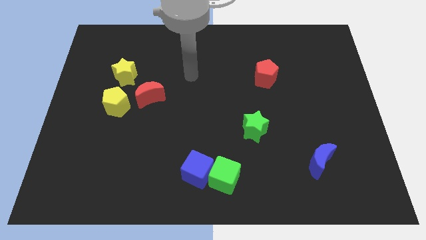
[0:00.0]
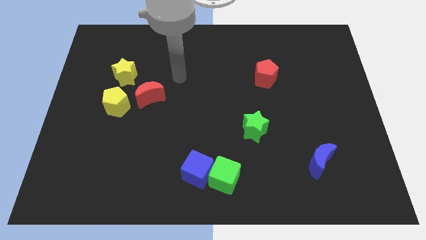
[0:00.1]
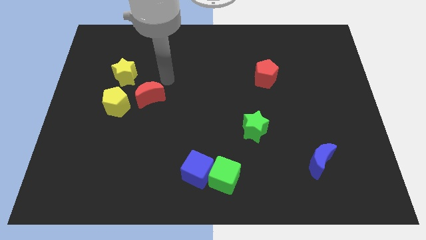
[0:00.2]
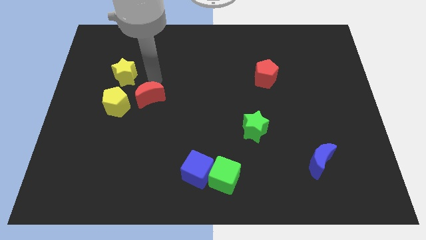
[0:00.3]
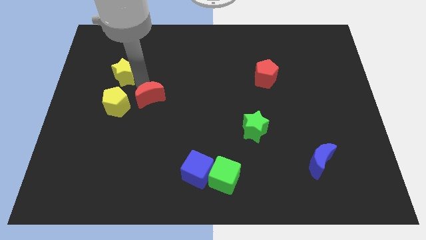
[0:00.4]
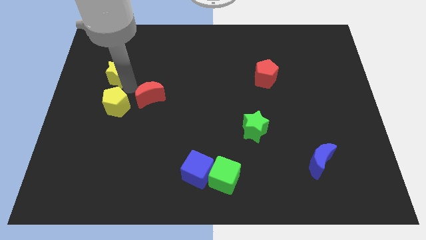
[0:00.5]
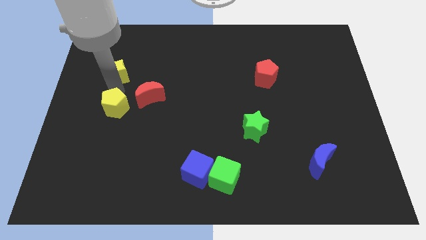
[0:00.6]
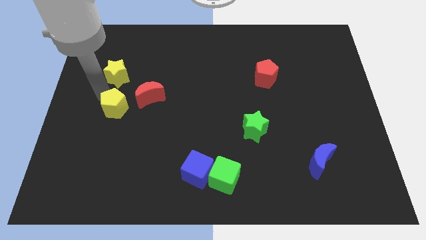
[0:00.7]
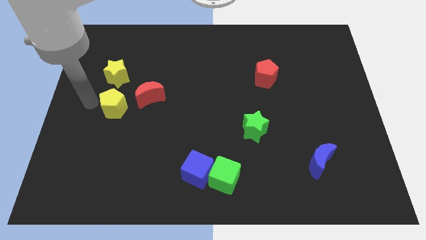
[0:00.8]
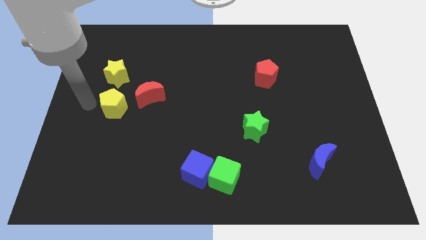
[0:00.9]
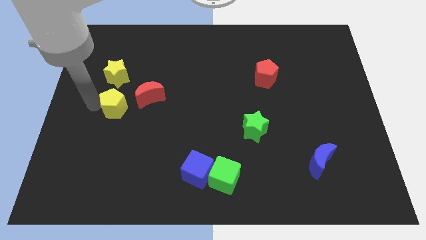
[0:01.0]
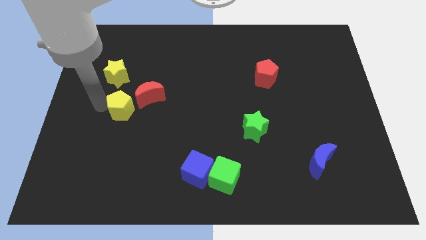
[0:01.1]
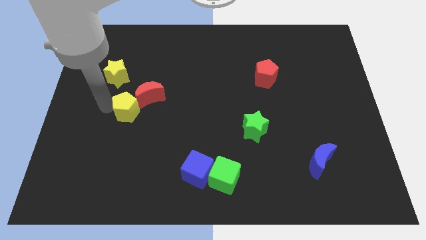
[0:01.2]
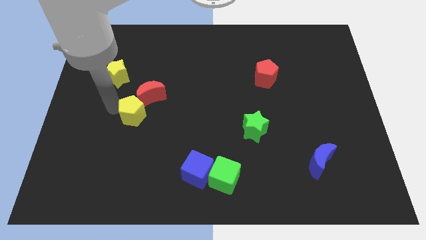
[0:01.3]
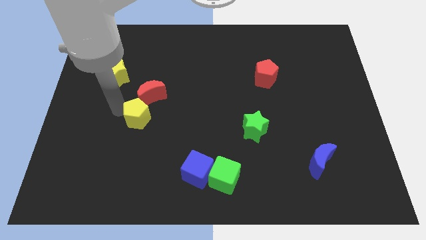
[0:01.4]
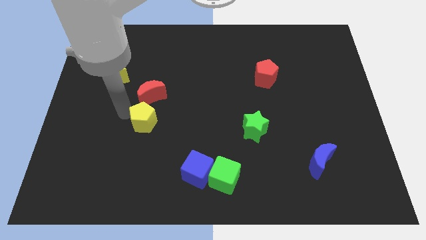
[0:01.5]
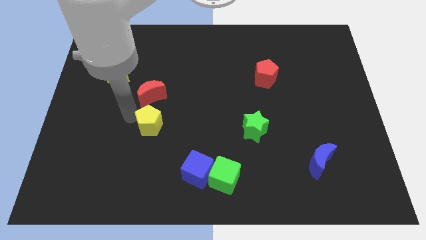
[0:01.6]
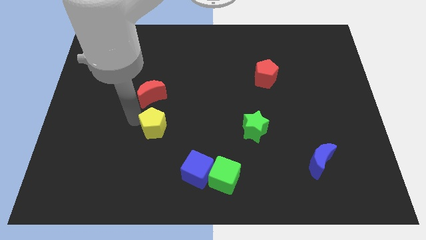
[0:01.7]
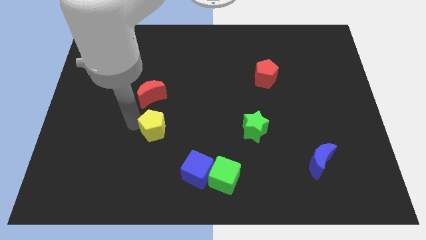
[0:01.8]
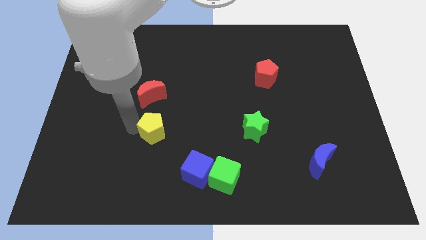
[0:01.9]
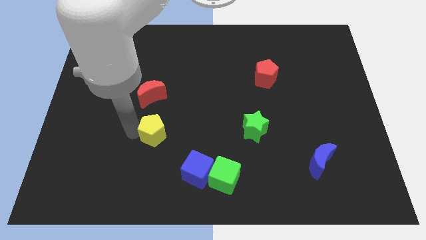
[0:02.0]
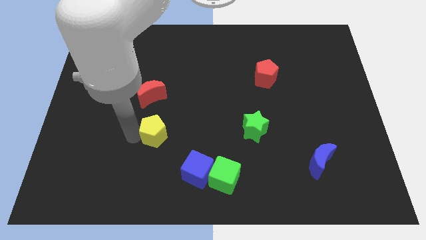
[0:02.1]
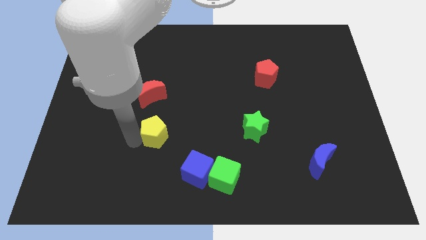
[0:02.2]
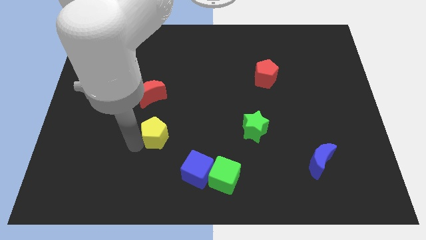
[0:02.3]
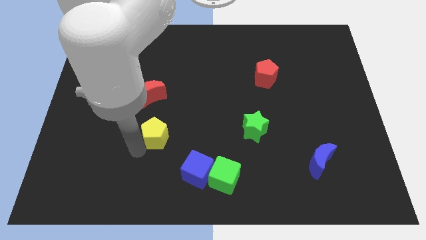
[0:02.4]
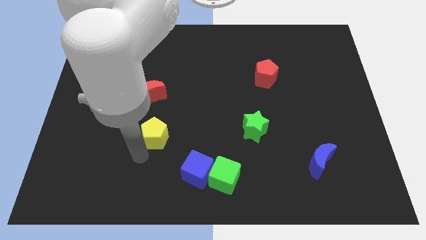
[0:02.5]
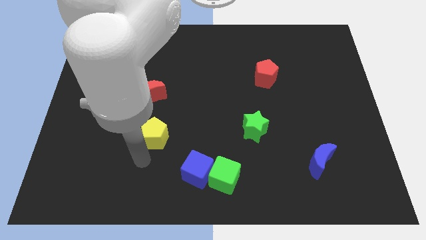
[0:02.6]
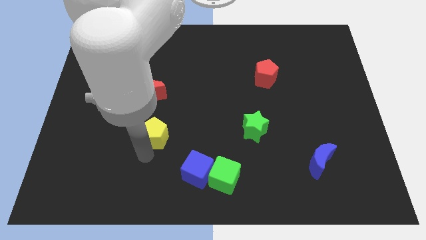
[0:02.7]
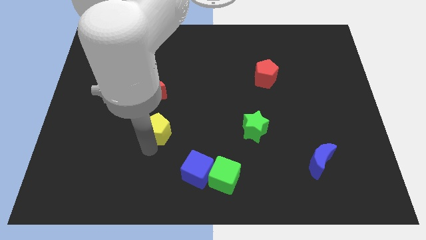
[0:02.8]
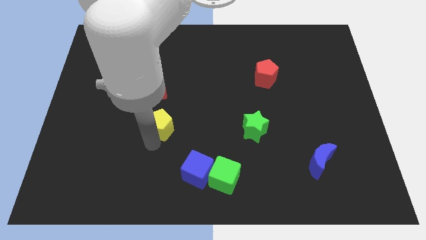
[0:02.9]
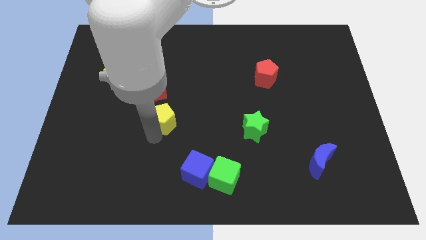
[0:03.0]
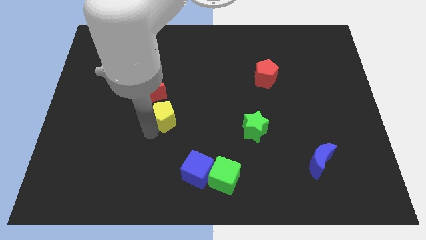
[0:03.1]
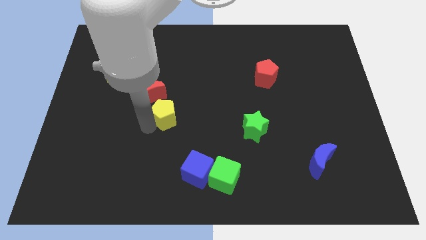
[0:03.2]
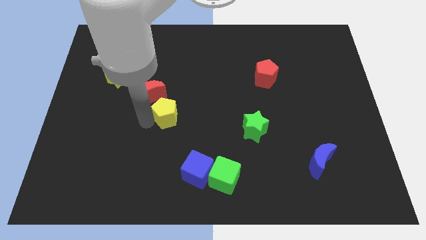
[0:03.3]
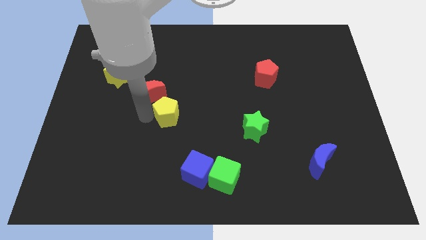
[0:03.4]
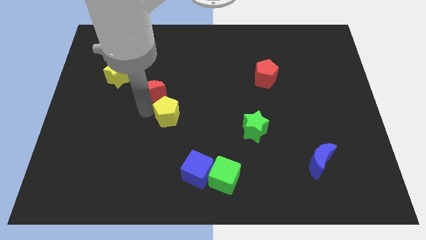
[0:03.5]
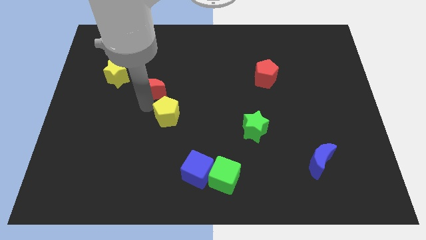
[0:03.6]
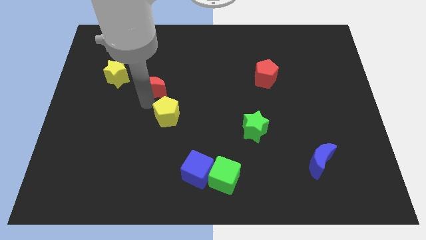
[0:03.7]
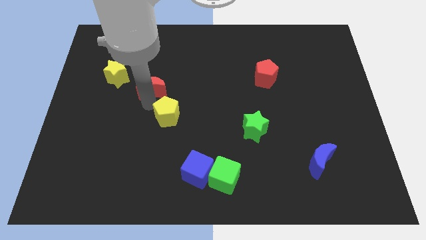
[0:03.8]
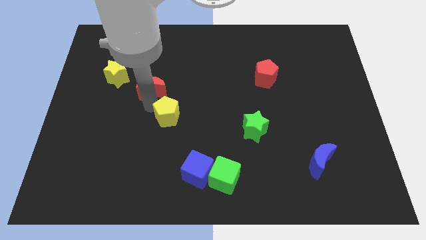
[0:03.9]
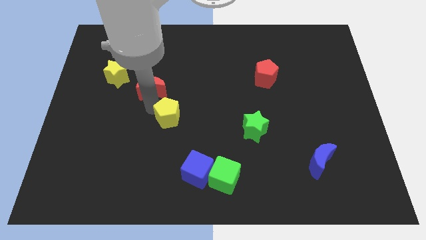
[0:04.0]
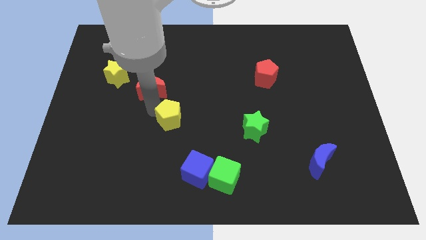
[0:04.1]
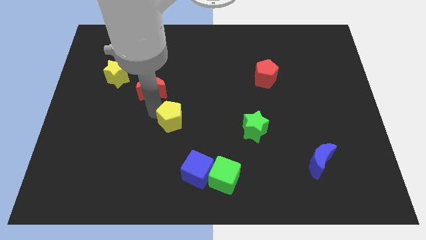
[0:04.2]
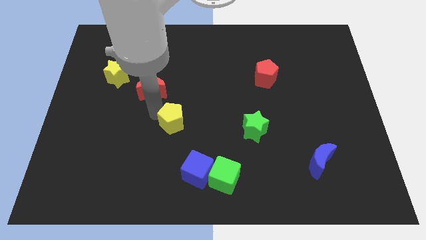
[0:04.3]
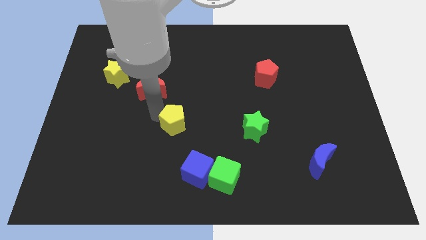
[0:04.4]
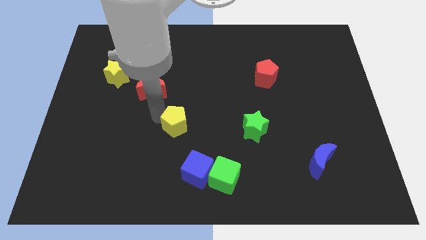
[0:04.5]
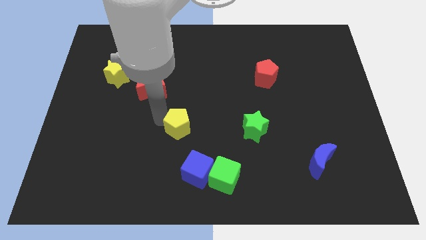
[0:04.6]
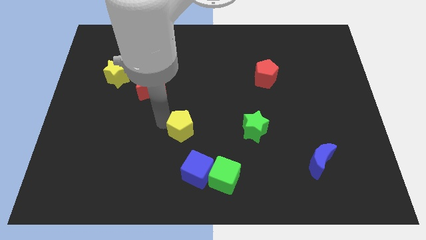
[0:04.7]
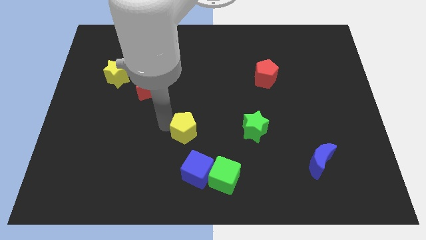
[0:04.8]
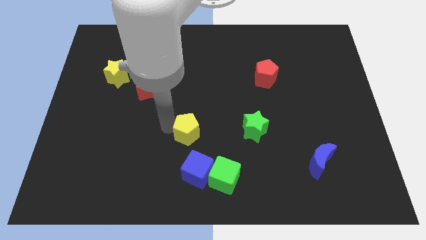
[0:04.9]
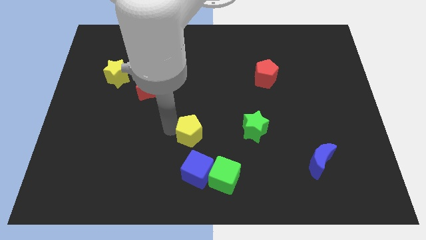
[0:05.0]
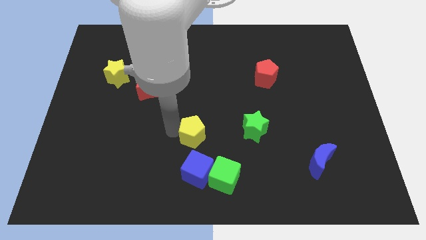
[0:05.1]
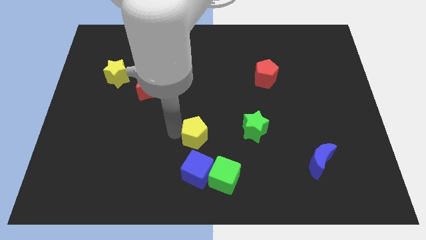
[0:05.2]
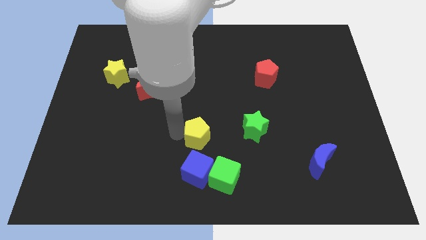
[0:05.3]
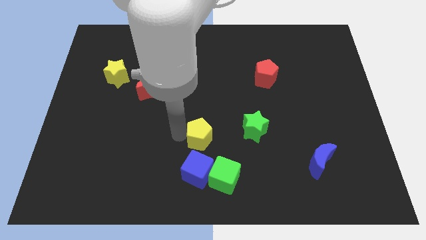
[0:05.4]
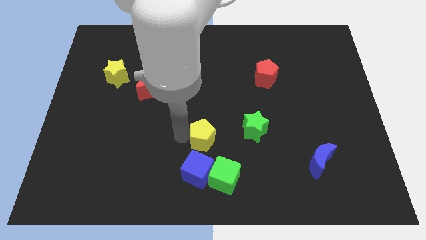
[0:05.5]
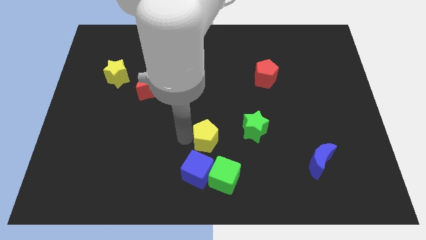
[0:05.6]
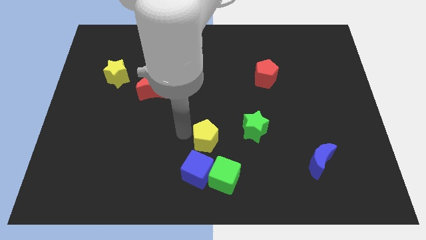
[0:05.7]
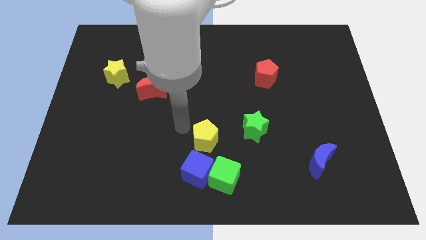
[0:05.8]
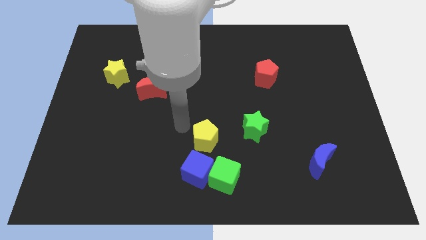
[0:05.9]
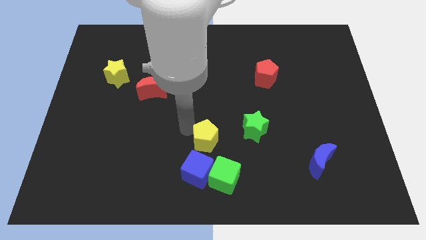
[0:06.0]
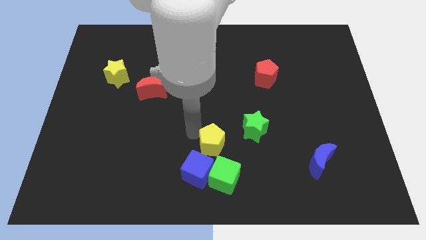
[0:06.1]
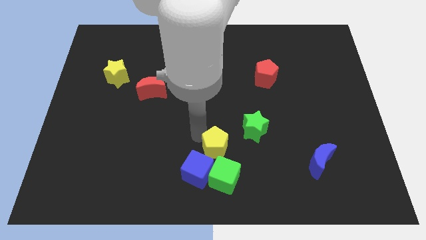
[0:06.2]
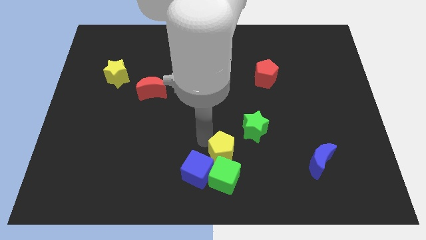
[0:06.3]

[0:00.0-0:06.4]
move the yellow pentagon to the top right side of the green cube
